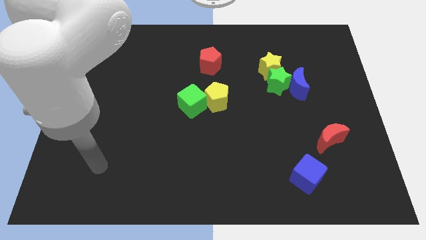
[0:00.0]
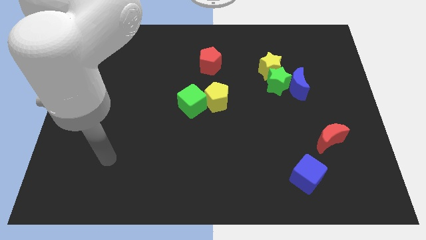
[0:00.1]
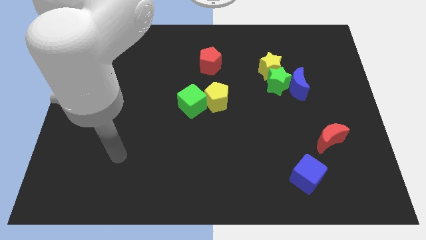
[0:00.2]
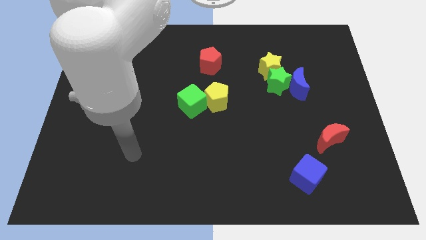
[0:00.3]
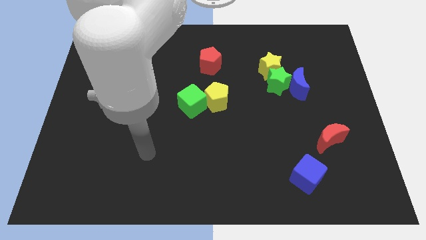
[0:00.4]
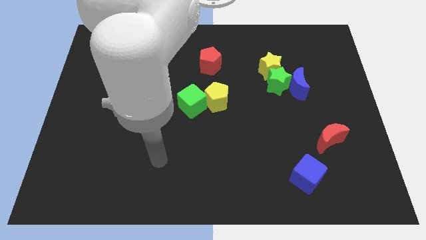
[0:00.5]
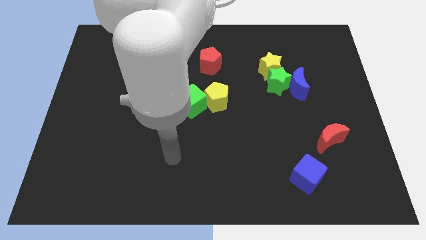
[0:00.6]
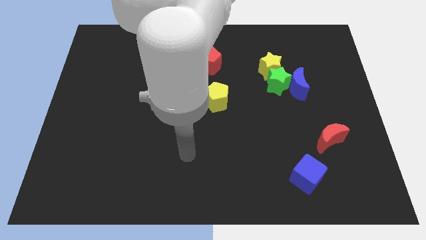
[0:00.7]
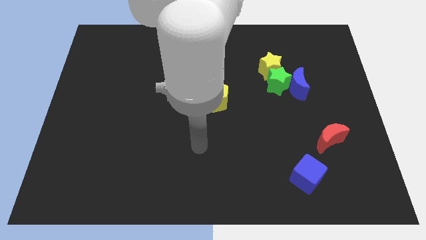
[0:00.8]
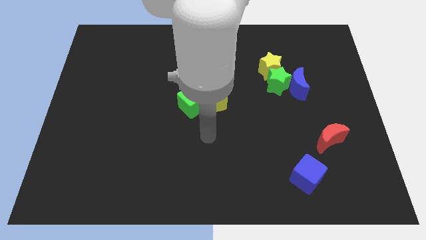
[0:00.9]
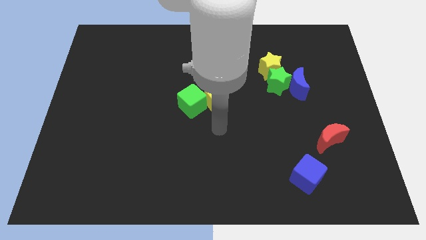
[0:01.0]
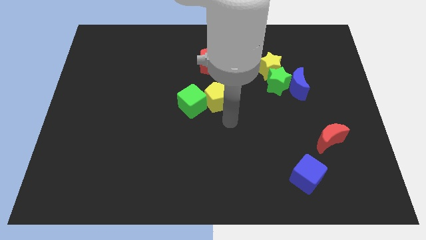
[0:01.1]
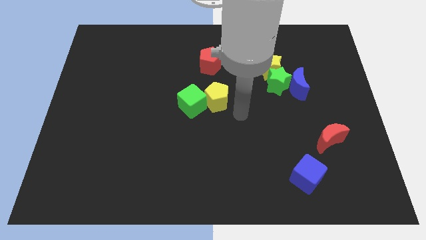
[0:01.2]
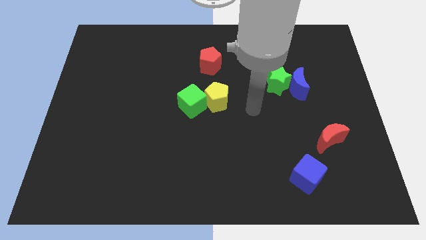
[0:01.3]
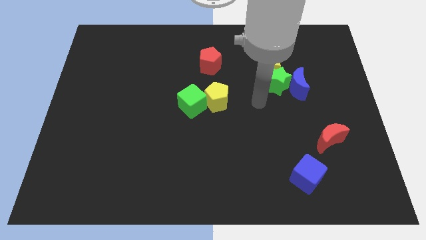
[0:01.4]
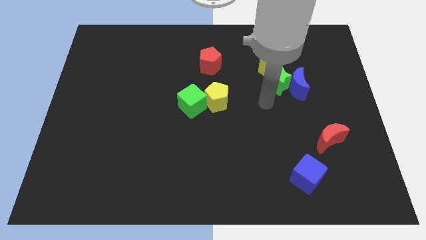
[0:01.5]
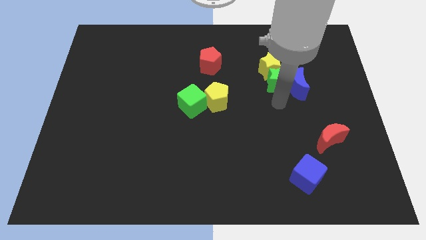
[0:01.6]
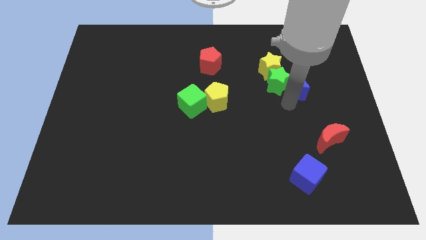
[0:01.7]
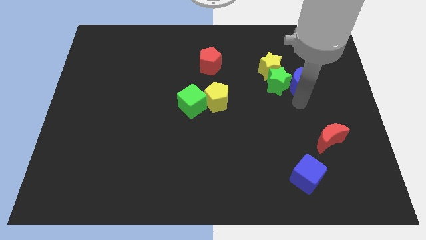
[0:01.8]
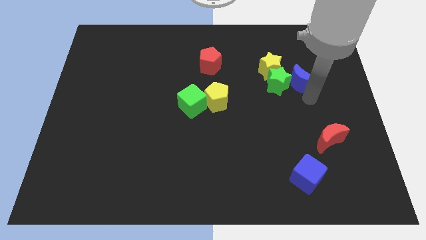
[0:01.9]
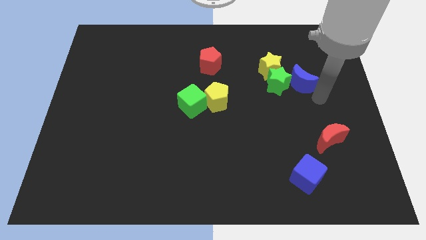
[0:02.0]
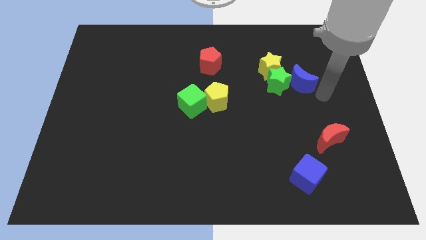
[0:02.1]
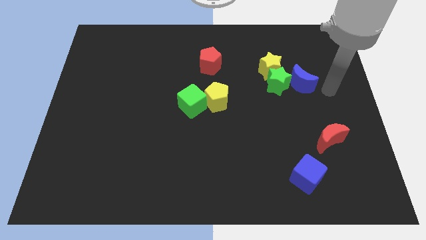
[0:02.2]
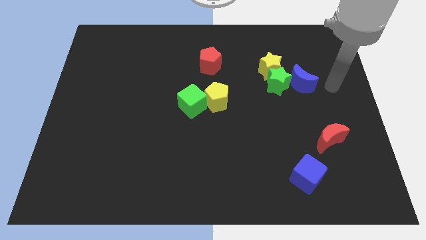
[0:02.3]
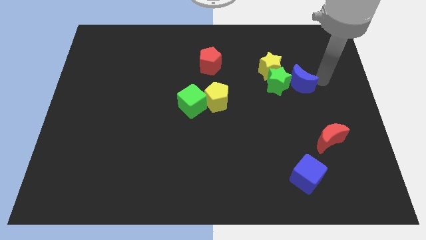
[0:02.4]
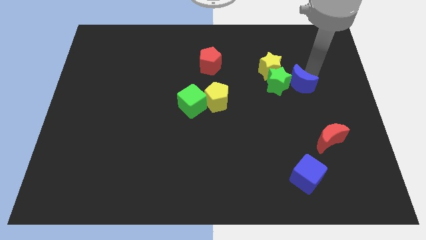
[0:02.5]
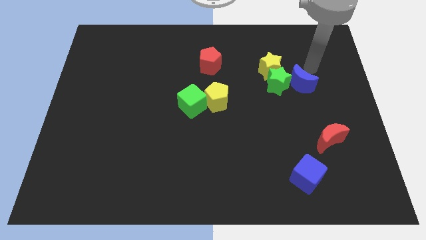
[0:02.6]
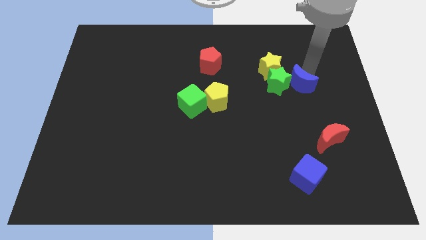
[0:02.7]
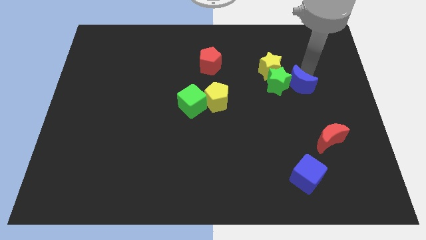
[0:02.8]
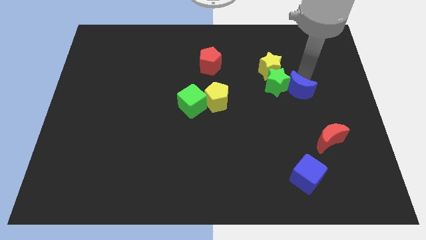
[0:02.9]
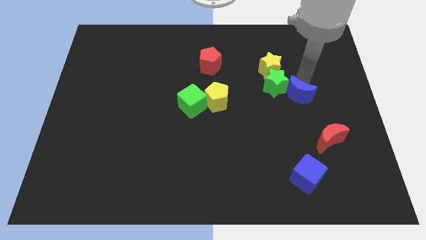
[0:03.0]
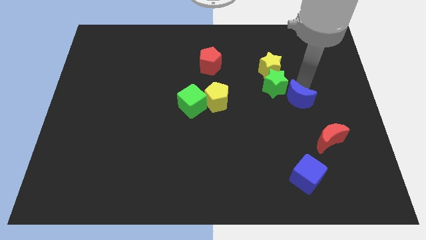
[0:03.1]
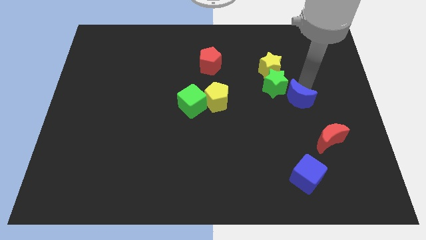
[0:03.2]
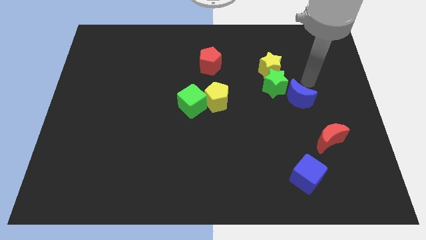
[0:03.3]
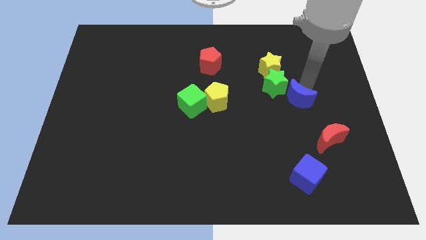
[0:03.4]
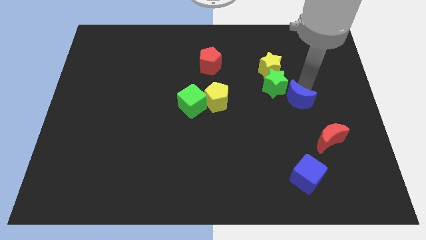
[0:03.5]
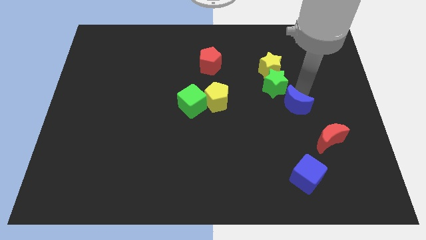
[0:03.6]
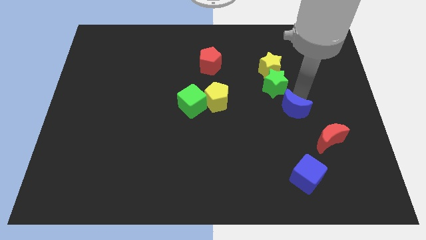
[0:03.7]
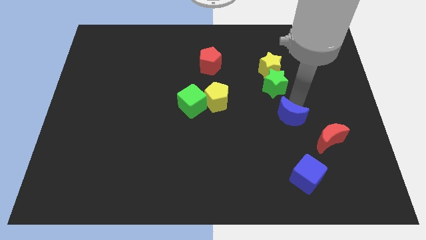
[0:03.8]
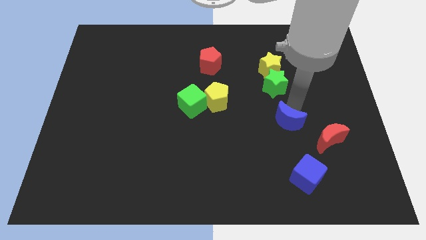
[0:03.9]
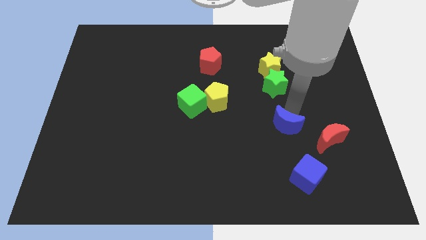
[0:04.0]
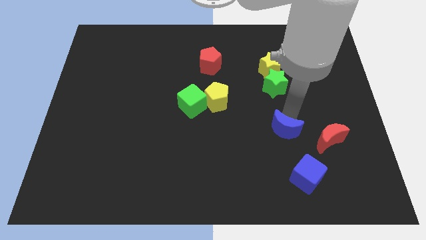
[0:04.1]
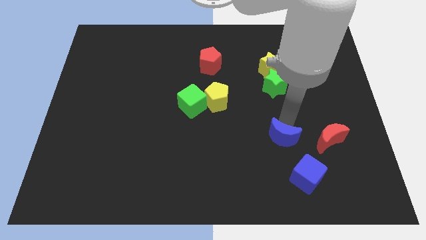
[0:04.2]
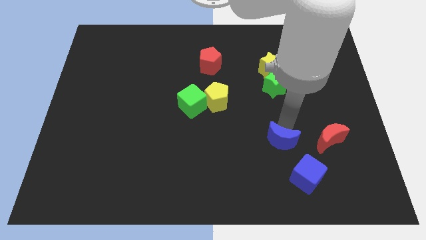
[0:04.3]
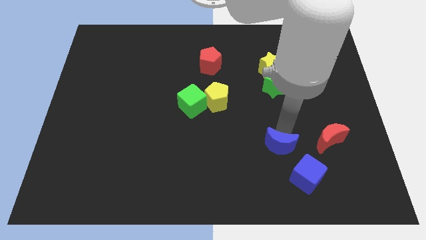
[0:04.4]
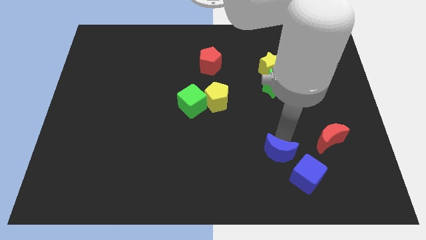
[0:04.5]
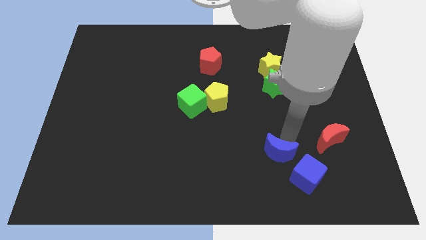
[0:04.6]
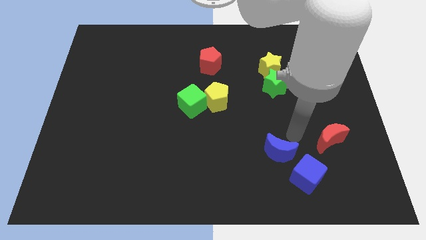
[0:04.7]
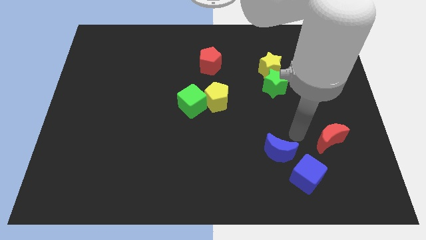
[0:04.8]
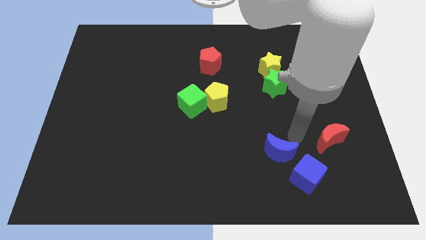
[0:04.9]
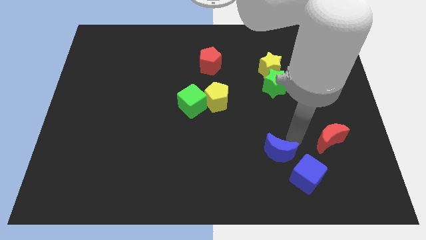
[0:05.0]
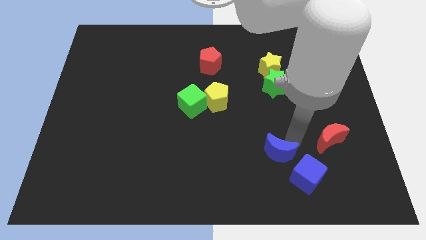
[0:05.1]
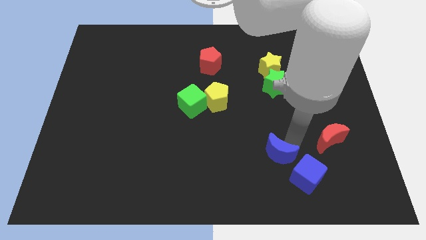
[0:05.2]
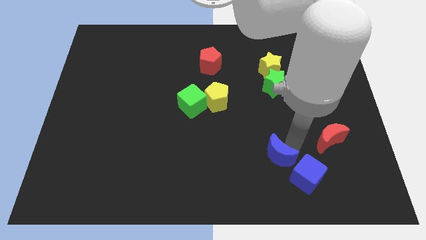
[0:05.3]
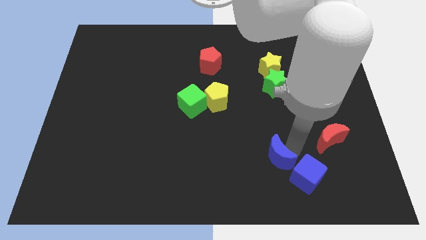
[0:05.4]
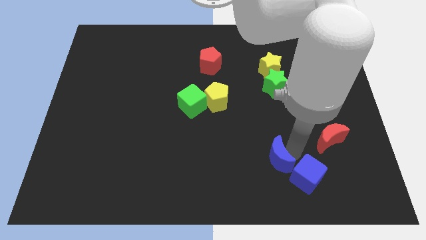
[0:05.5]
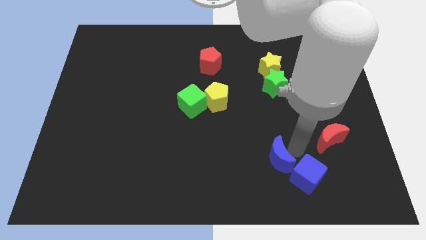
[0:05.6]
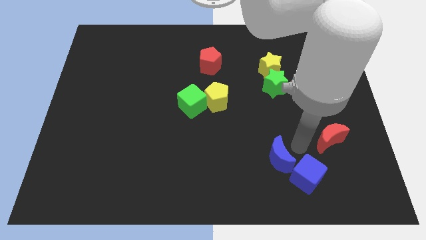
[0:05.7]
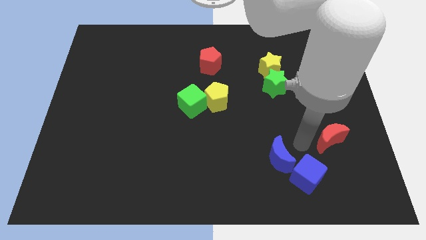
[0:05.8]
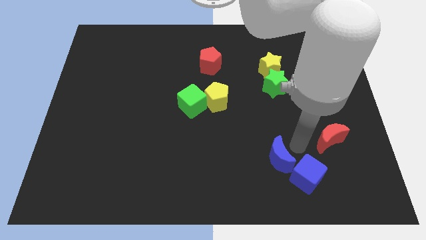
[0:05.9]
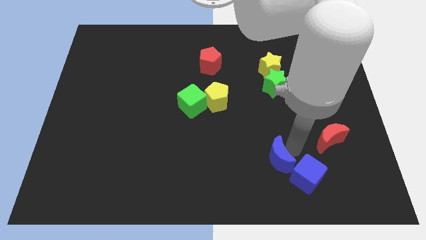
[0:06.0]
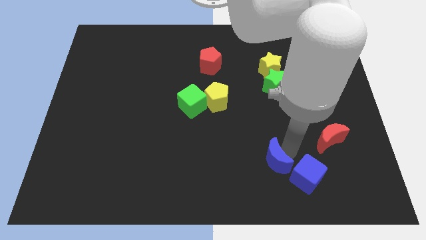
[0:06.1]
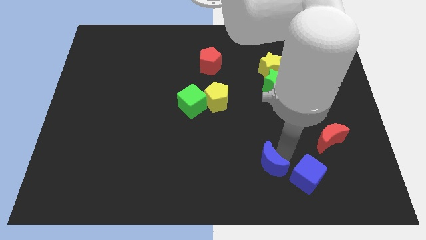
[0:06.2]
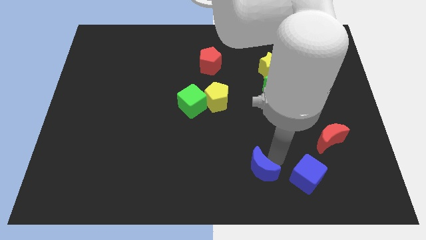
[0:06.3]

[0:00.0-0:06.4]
push the blue moon to the bottom

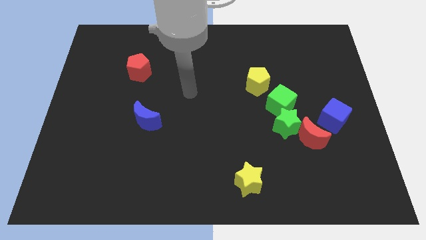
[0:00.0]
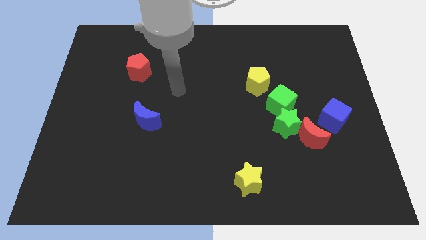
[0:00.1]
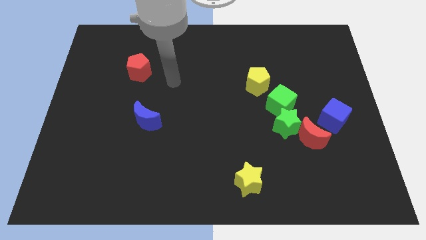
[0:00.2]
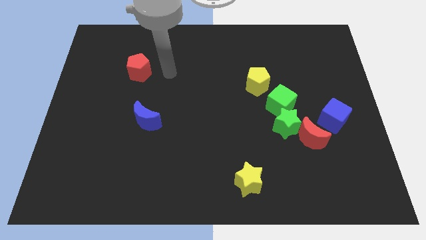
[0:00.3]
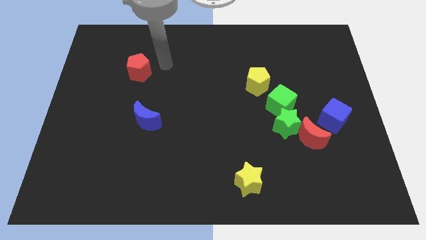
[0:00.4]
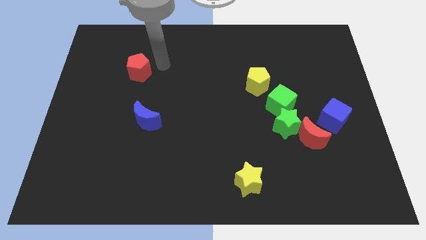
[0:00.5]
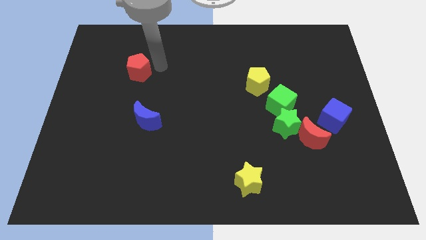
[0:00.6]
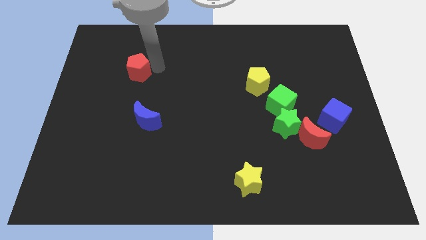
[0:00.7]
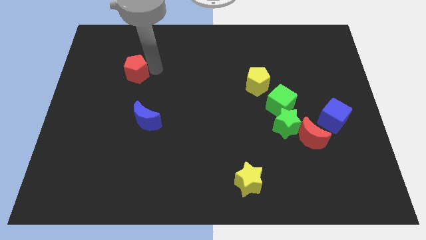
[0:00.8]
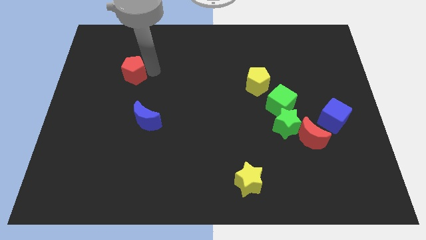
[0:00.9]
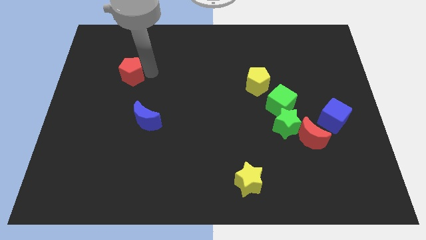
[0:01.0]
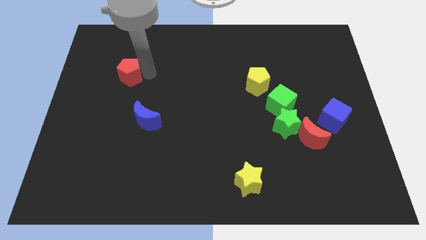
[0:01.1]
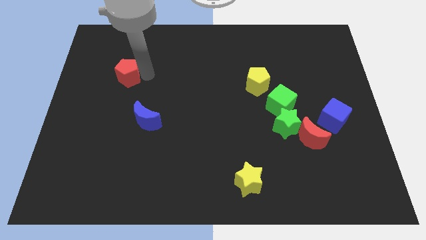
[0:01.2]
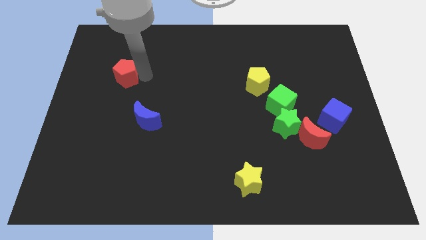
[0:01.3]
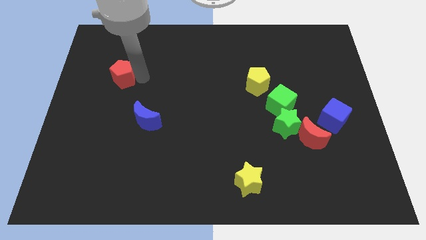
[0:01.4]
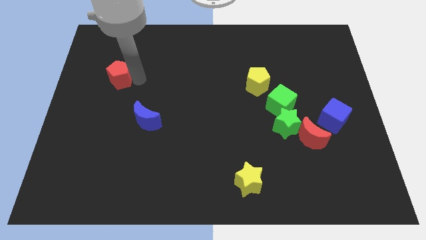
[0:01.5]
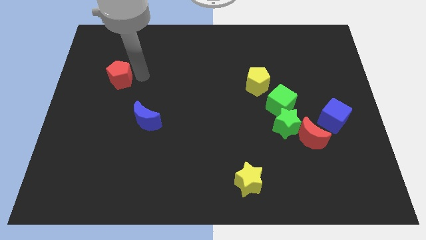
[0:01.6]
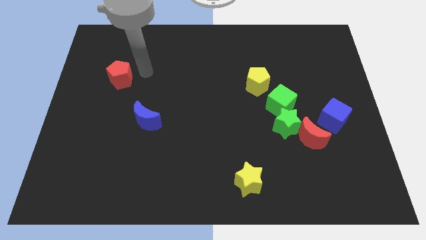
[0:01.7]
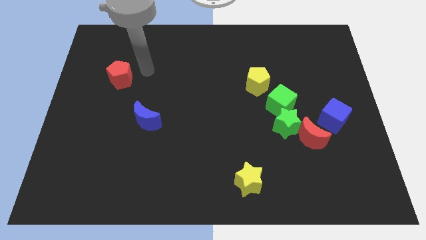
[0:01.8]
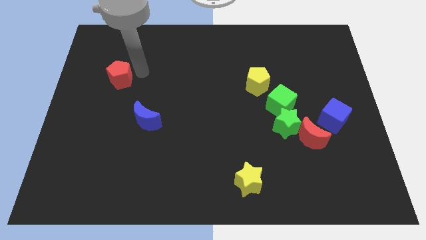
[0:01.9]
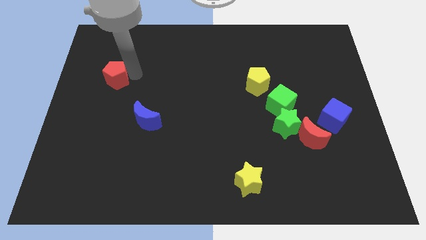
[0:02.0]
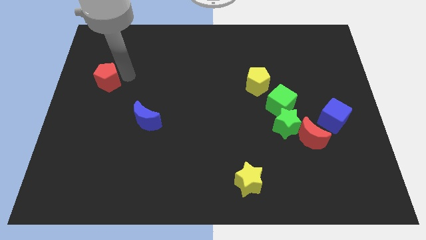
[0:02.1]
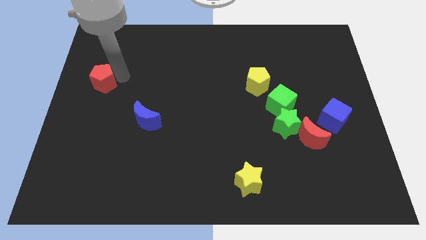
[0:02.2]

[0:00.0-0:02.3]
move the red pentagon to the left side
